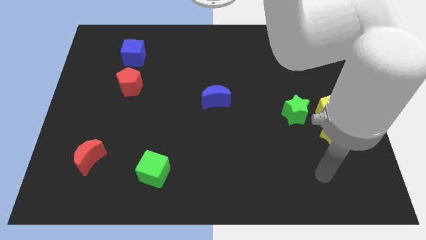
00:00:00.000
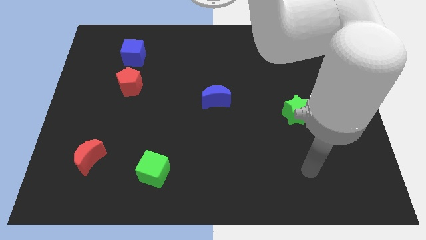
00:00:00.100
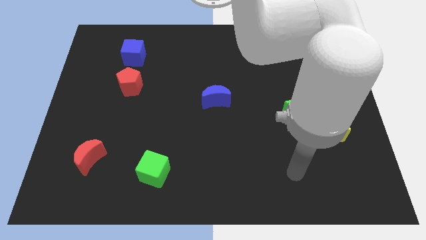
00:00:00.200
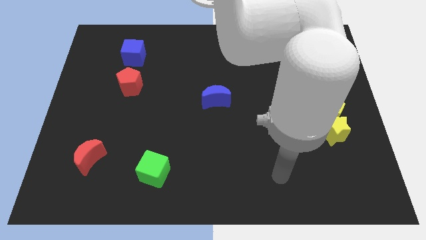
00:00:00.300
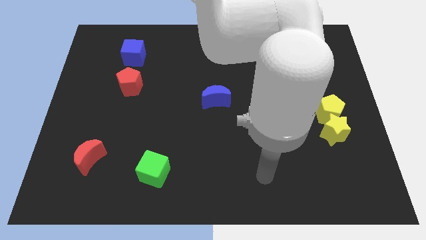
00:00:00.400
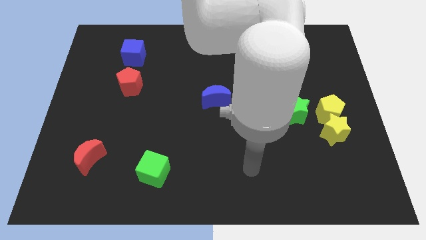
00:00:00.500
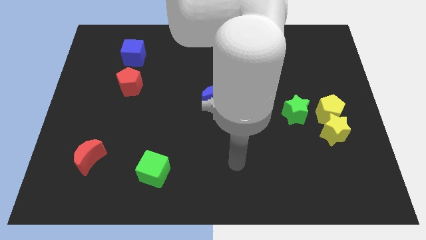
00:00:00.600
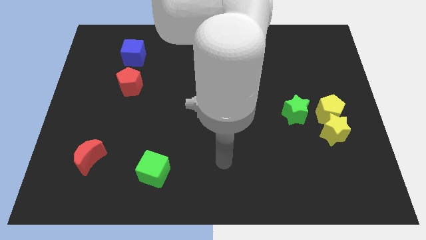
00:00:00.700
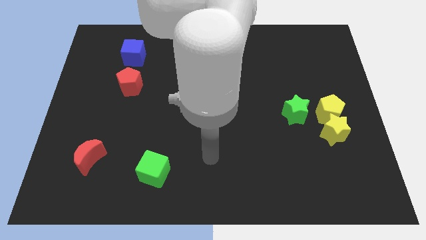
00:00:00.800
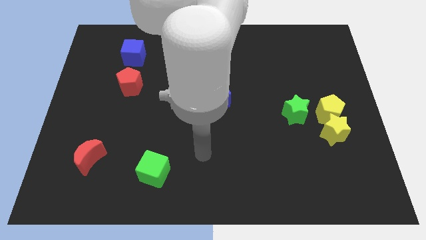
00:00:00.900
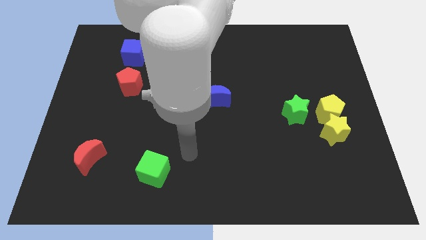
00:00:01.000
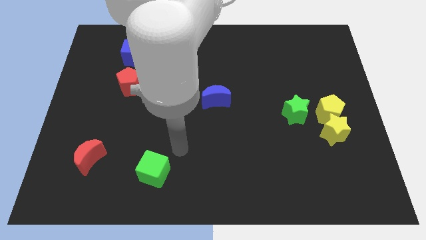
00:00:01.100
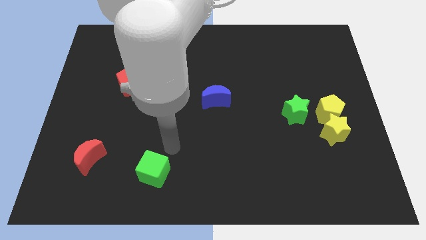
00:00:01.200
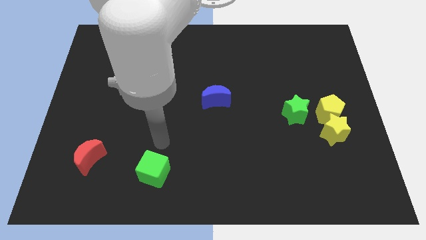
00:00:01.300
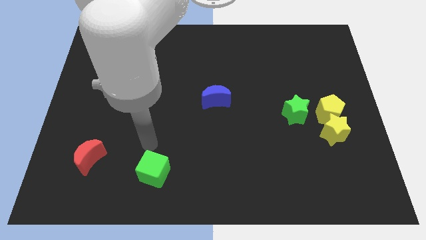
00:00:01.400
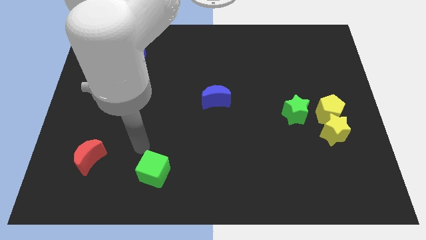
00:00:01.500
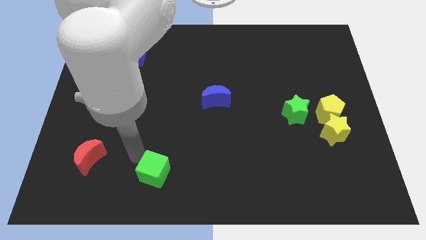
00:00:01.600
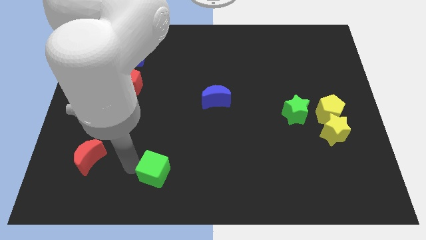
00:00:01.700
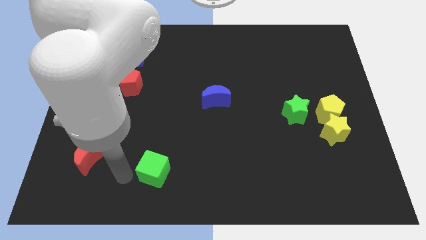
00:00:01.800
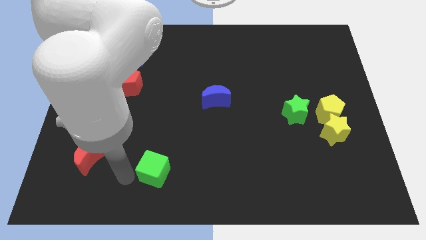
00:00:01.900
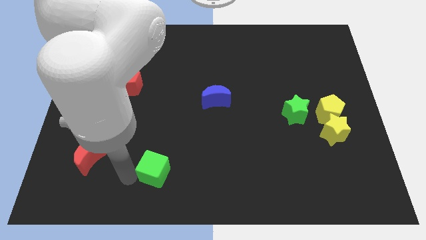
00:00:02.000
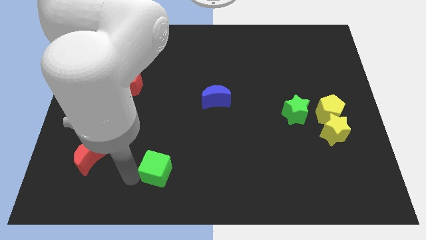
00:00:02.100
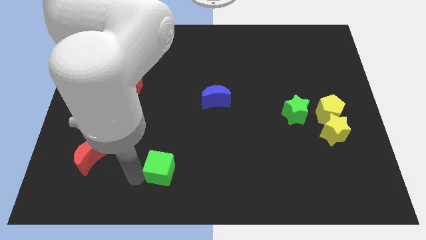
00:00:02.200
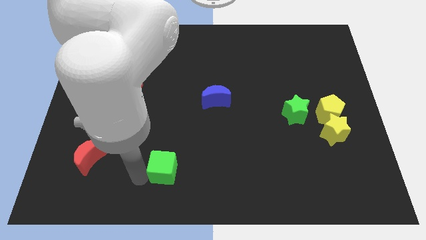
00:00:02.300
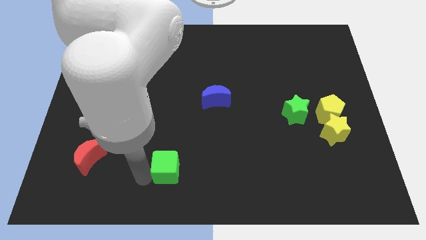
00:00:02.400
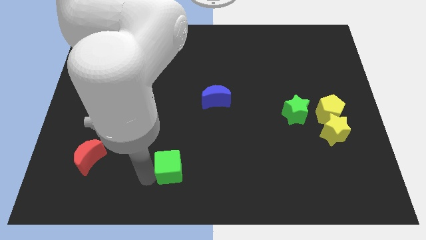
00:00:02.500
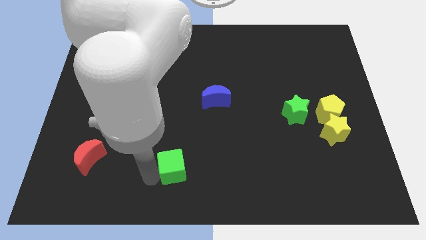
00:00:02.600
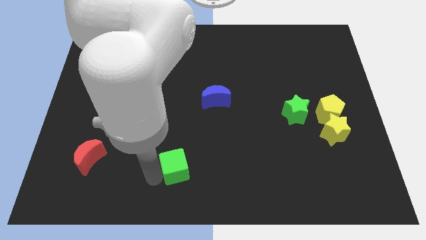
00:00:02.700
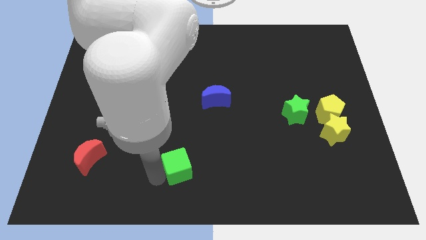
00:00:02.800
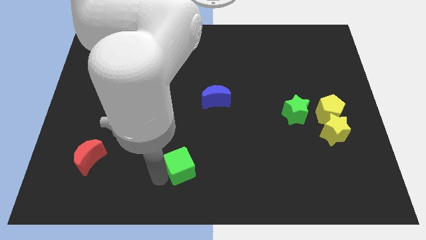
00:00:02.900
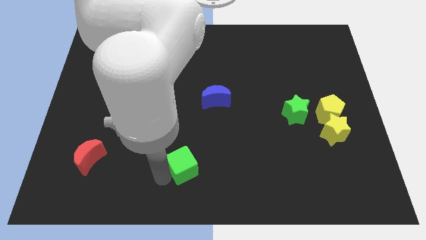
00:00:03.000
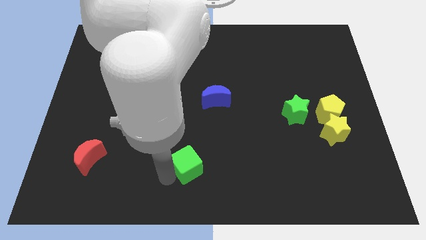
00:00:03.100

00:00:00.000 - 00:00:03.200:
slightly move the green cube right

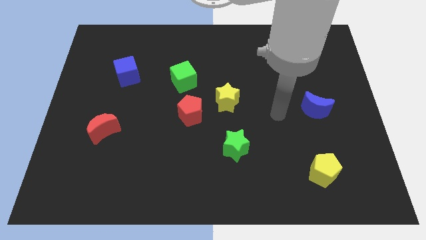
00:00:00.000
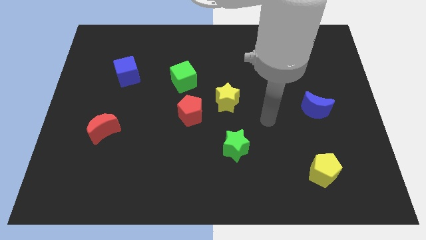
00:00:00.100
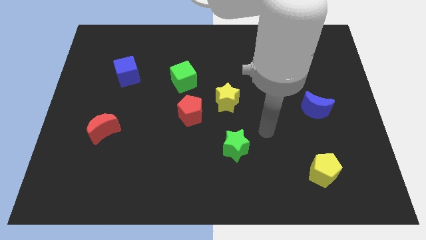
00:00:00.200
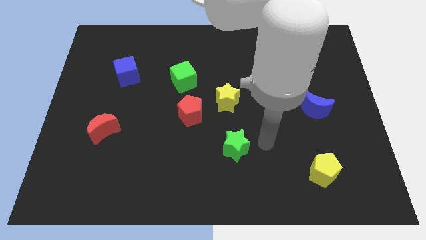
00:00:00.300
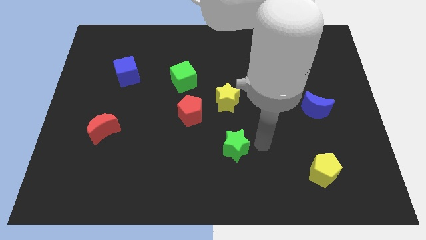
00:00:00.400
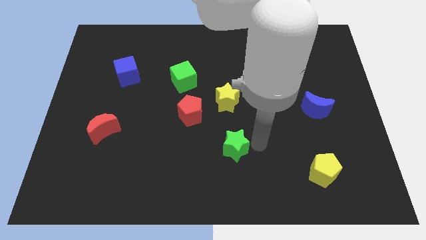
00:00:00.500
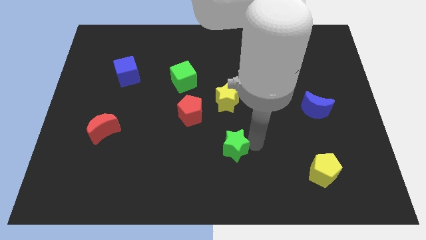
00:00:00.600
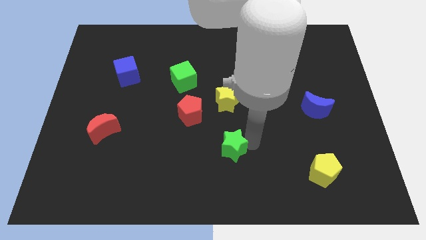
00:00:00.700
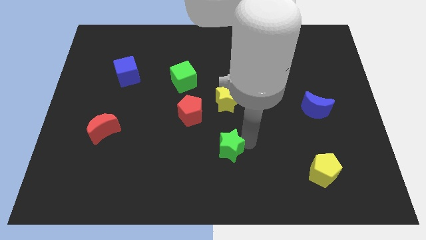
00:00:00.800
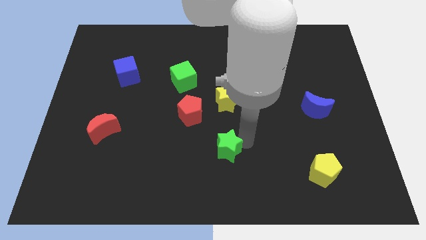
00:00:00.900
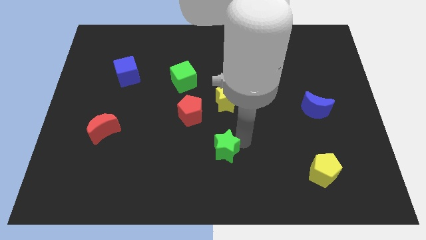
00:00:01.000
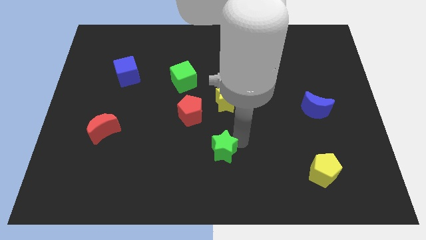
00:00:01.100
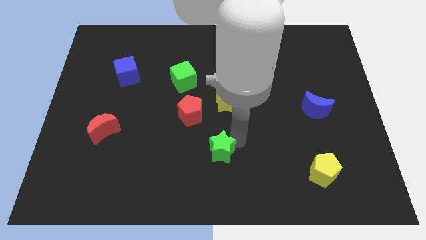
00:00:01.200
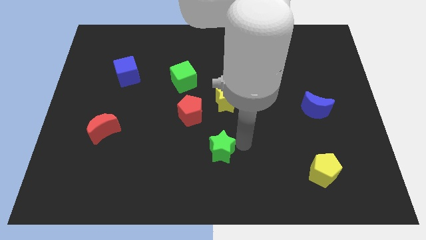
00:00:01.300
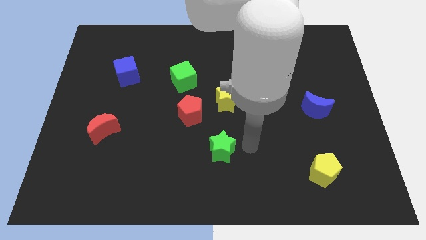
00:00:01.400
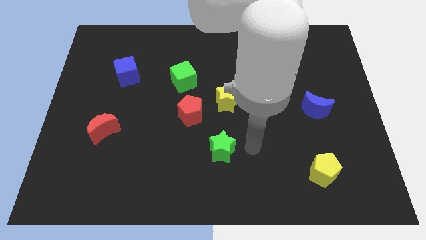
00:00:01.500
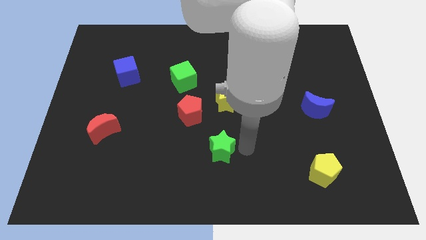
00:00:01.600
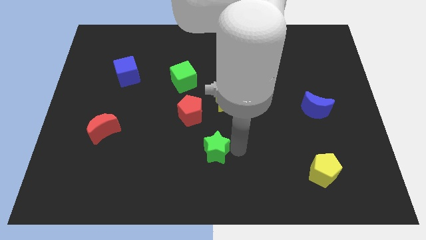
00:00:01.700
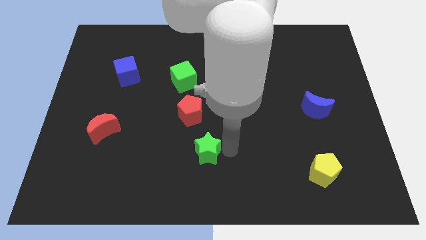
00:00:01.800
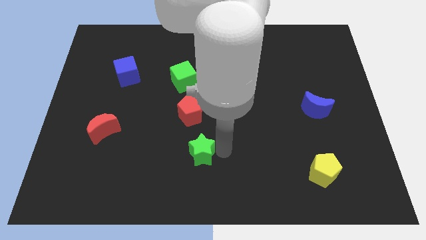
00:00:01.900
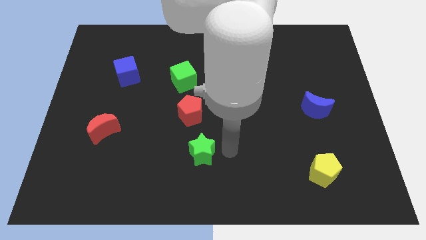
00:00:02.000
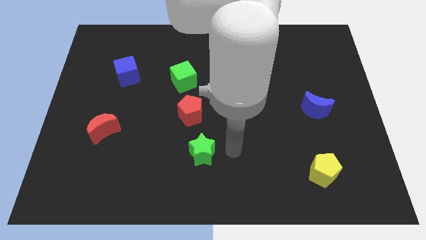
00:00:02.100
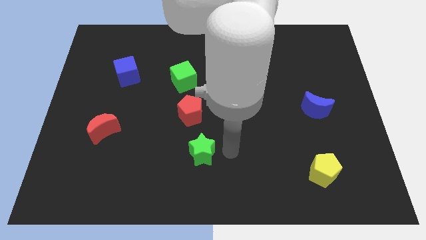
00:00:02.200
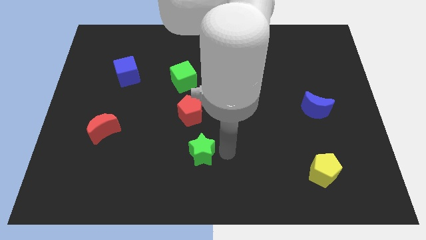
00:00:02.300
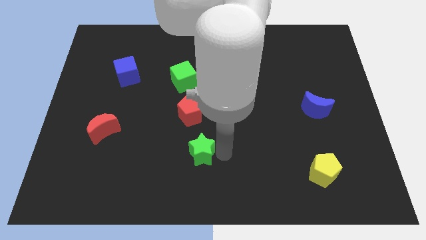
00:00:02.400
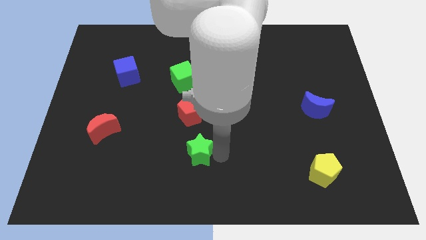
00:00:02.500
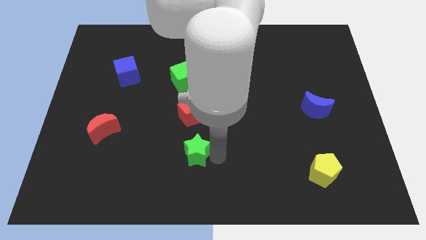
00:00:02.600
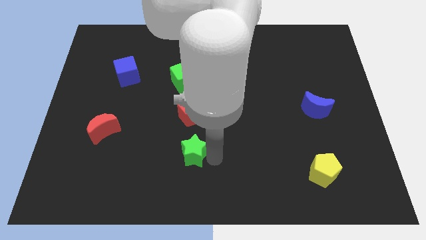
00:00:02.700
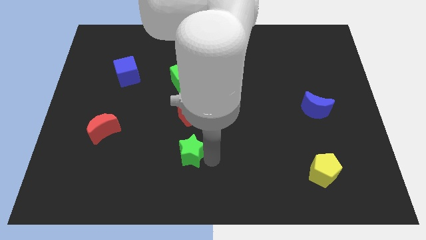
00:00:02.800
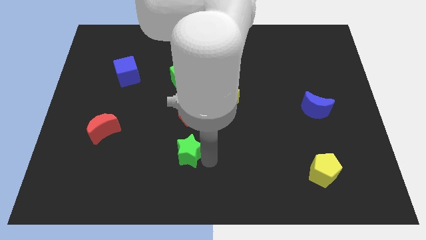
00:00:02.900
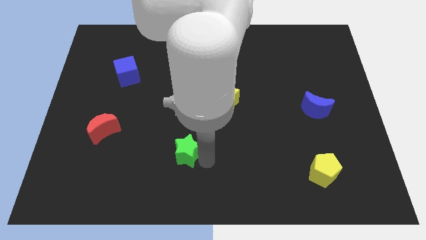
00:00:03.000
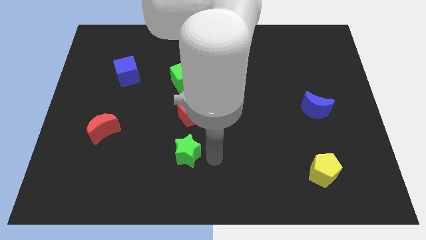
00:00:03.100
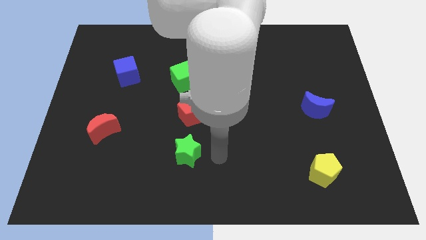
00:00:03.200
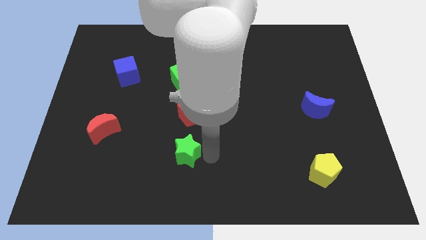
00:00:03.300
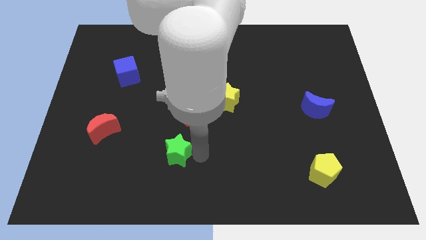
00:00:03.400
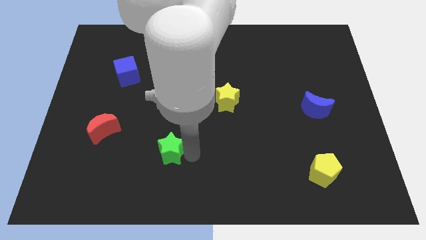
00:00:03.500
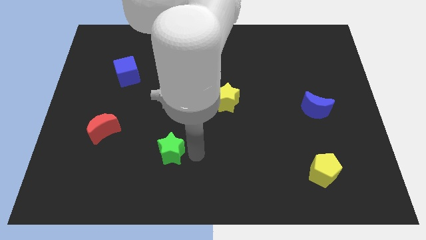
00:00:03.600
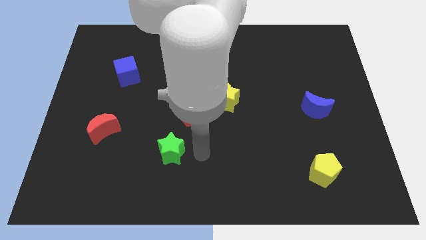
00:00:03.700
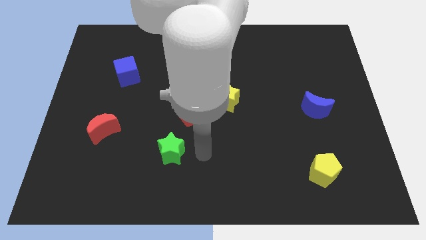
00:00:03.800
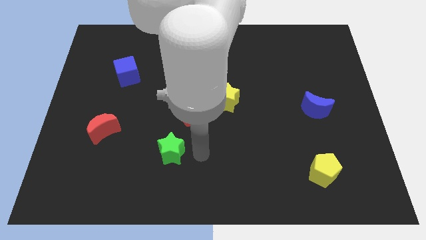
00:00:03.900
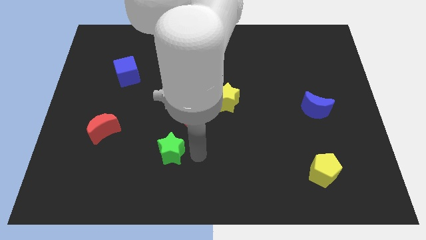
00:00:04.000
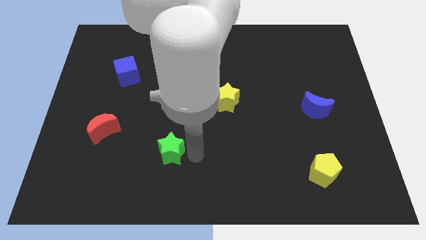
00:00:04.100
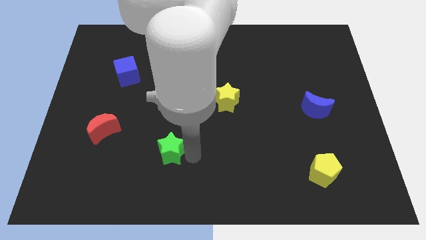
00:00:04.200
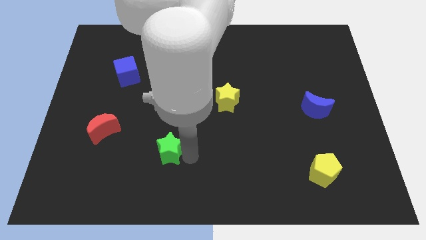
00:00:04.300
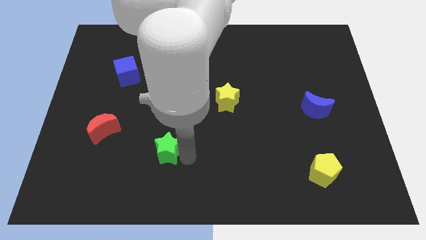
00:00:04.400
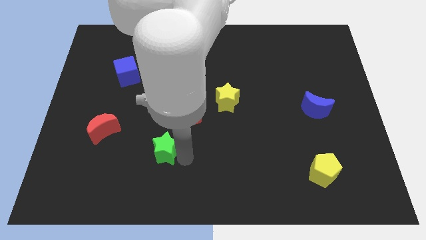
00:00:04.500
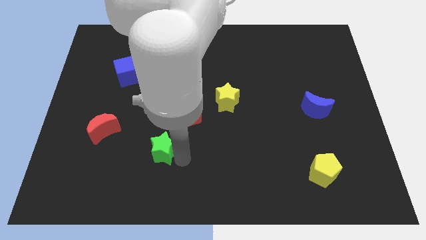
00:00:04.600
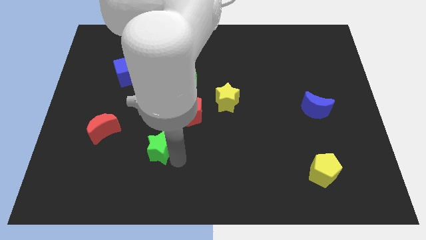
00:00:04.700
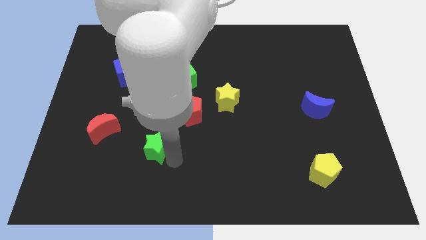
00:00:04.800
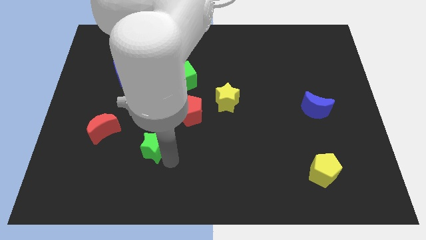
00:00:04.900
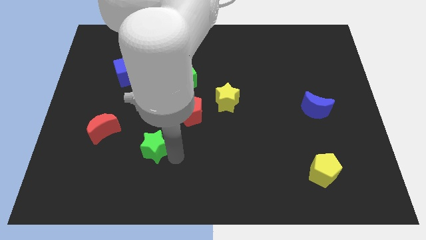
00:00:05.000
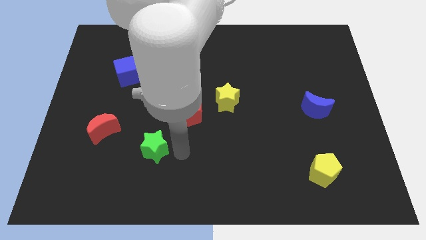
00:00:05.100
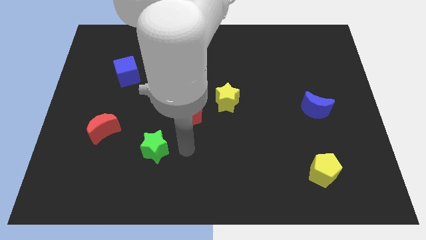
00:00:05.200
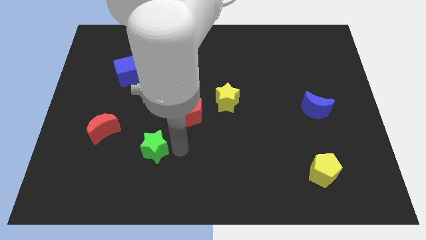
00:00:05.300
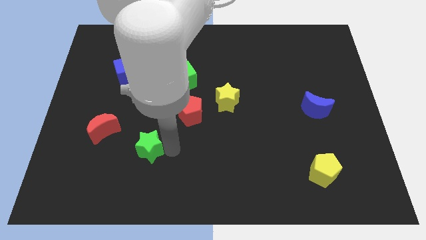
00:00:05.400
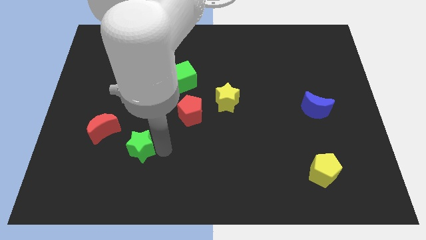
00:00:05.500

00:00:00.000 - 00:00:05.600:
push the green star to the left
